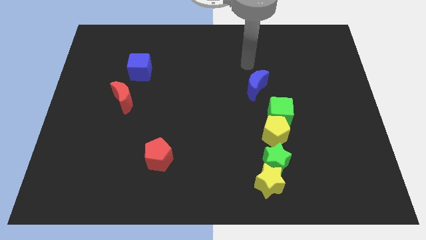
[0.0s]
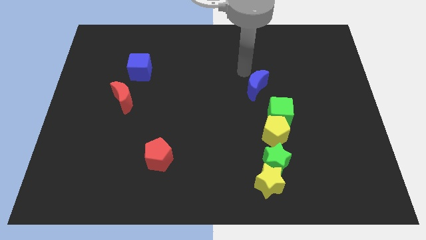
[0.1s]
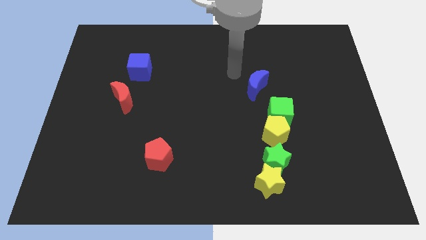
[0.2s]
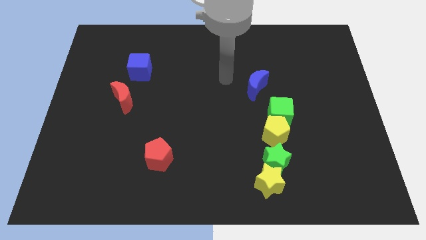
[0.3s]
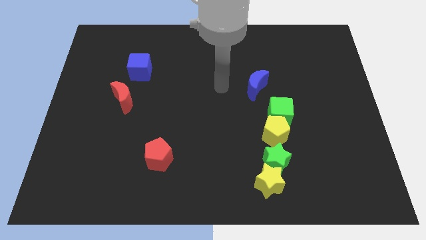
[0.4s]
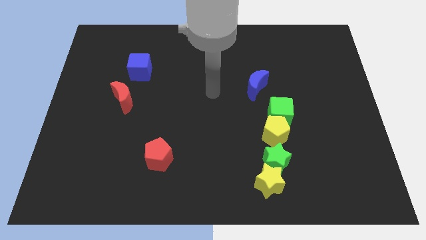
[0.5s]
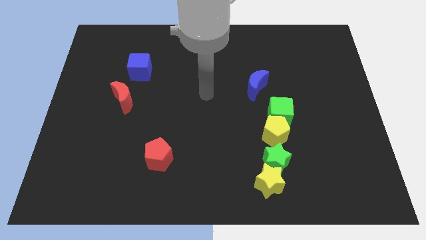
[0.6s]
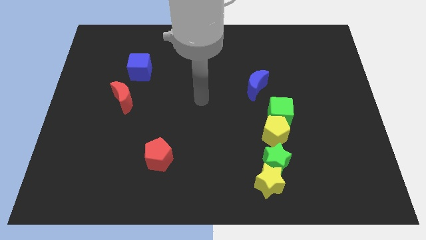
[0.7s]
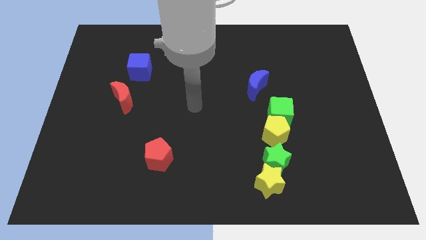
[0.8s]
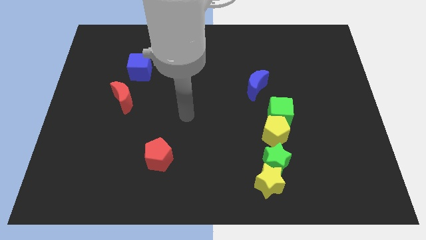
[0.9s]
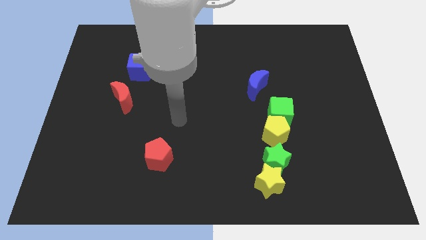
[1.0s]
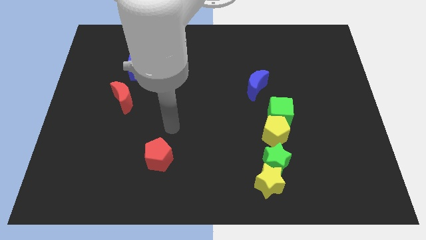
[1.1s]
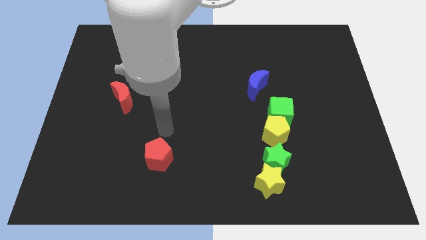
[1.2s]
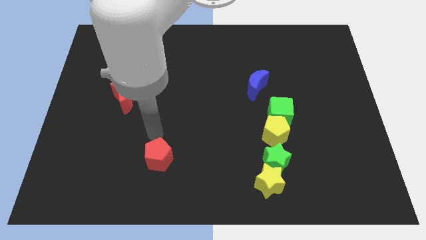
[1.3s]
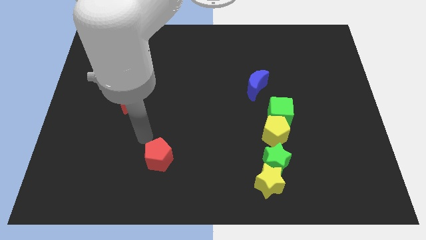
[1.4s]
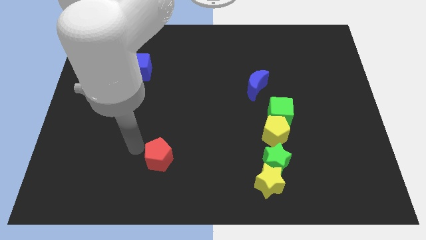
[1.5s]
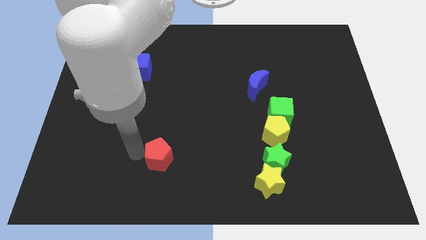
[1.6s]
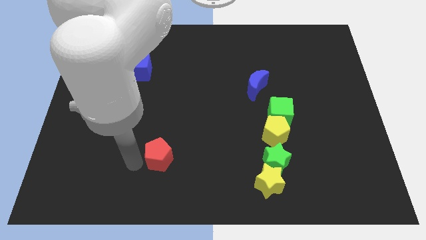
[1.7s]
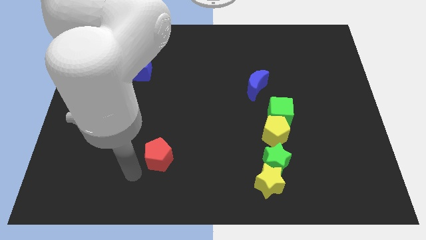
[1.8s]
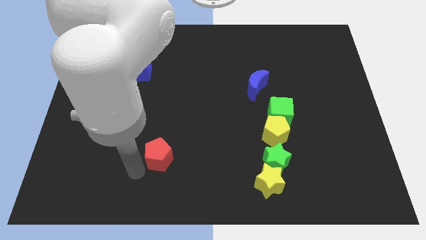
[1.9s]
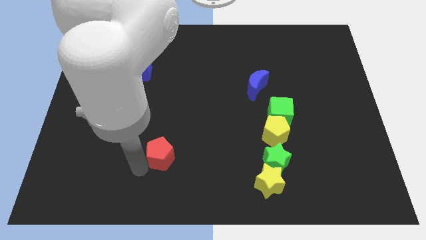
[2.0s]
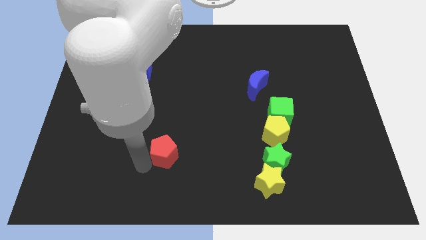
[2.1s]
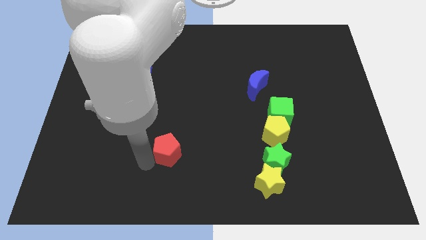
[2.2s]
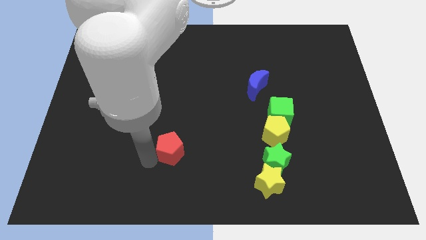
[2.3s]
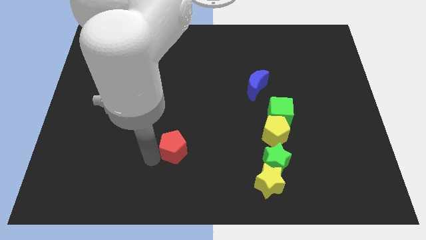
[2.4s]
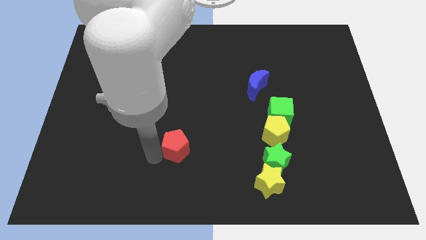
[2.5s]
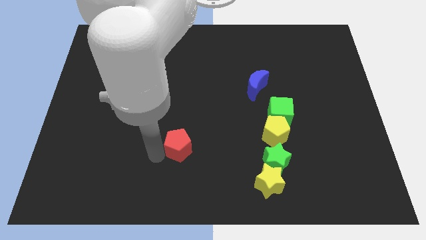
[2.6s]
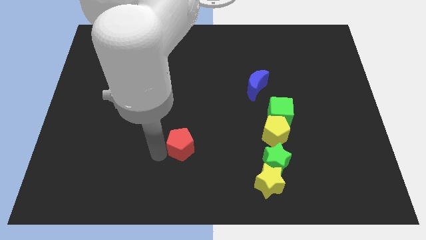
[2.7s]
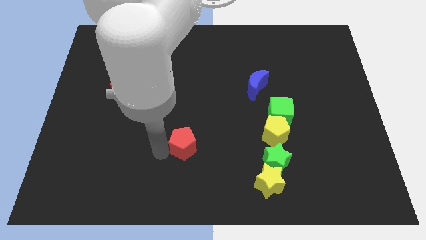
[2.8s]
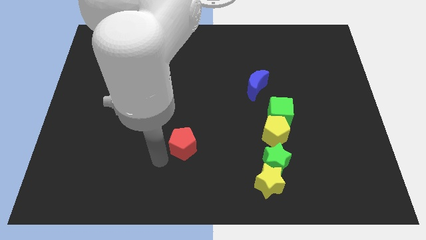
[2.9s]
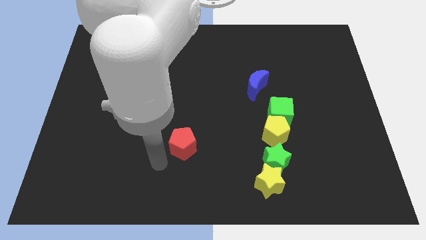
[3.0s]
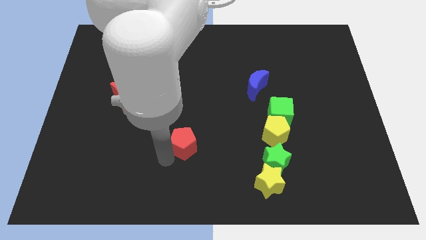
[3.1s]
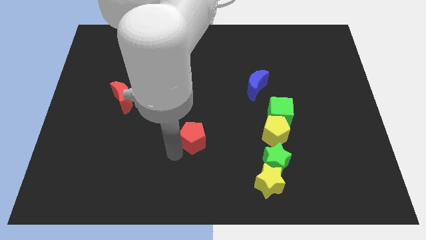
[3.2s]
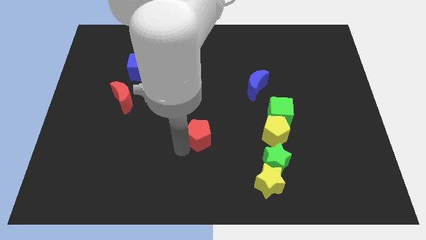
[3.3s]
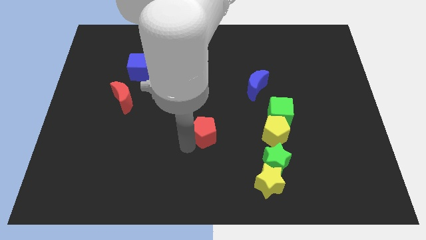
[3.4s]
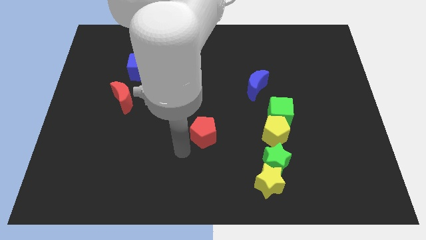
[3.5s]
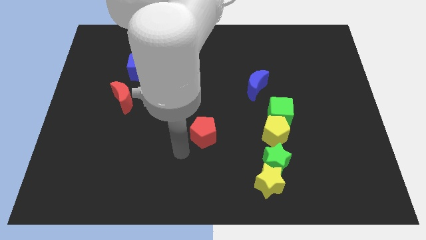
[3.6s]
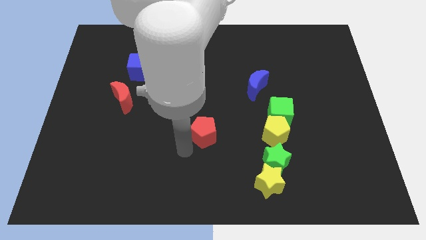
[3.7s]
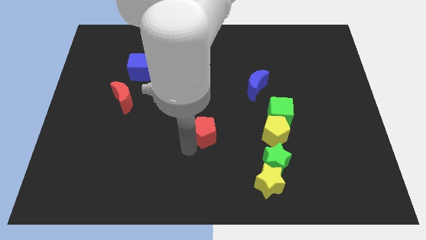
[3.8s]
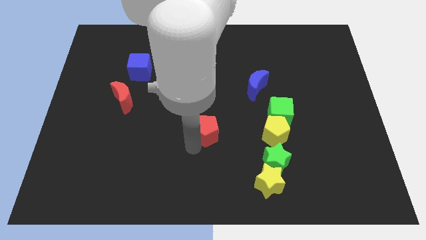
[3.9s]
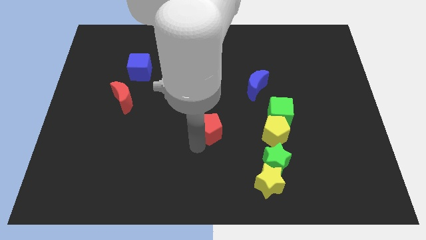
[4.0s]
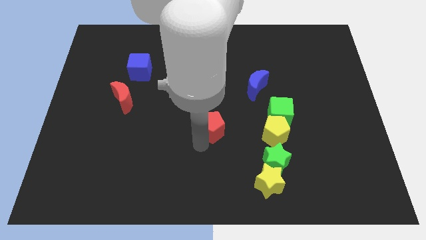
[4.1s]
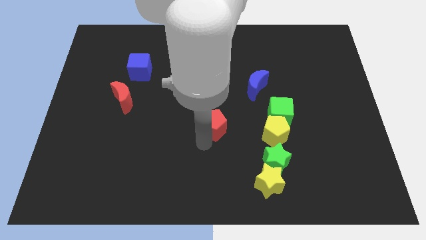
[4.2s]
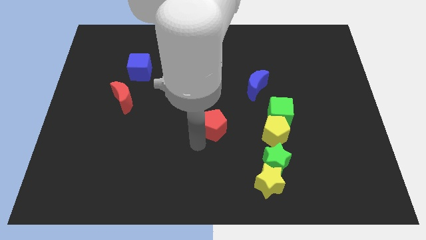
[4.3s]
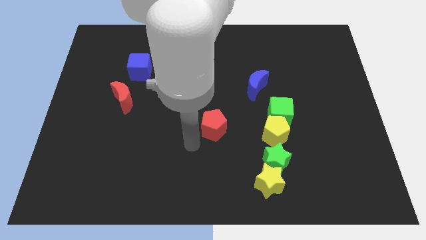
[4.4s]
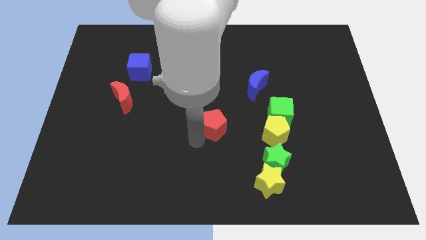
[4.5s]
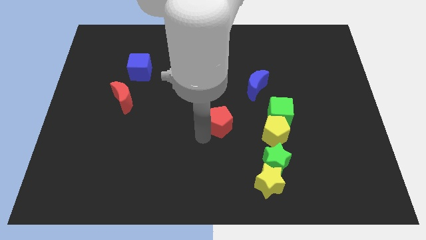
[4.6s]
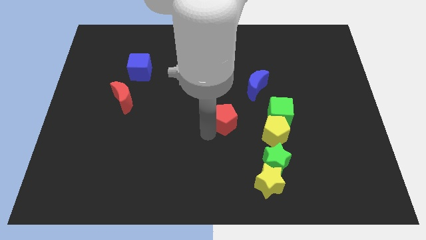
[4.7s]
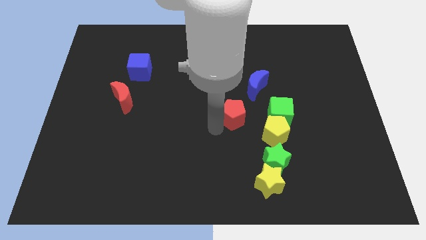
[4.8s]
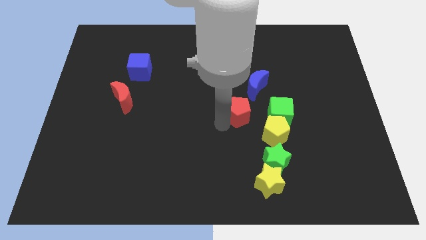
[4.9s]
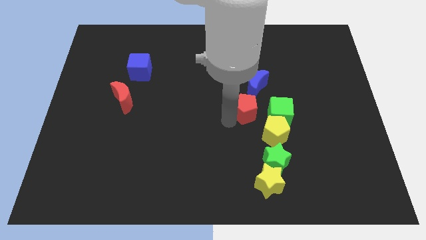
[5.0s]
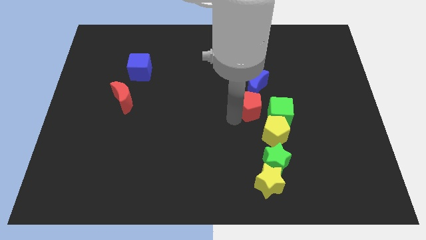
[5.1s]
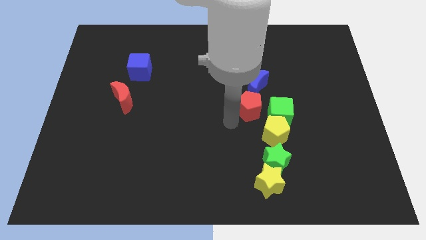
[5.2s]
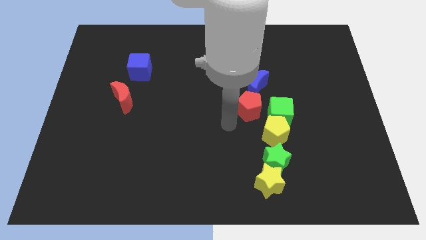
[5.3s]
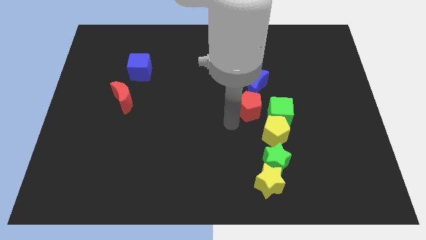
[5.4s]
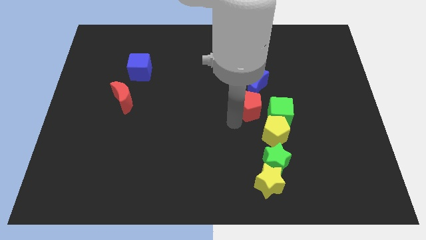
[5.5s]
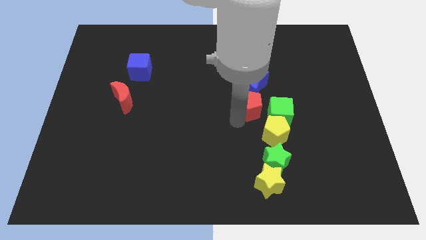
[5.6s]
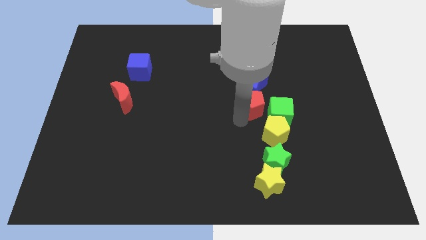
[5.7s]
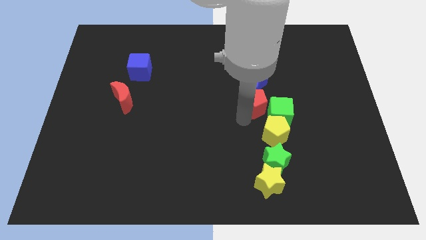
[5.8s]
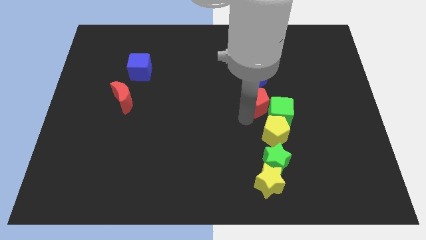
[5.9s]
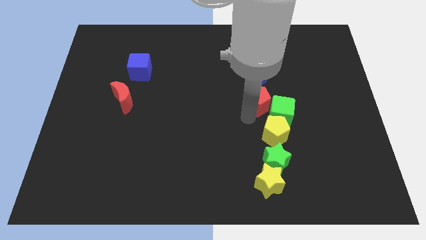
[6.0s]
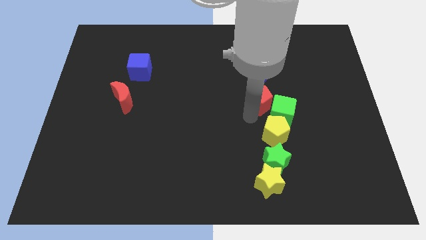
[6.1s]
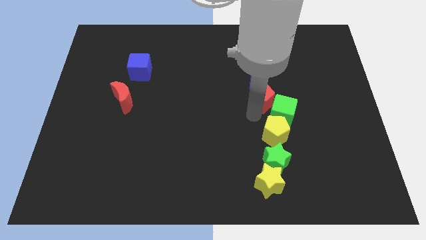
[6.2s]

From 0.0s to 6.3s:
slide the red pentagon above the green cube
